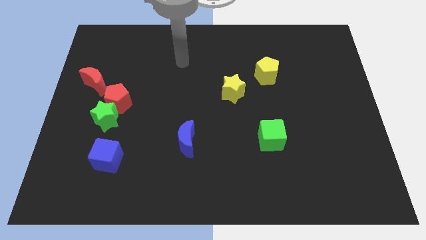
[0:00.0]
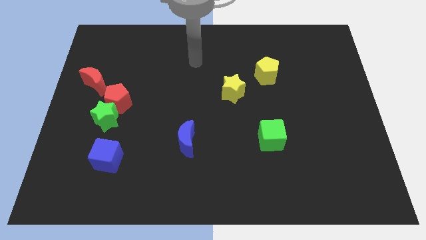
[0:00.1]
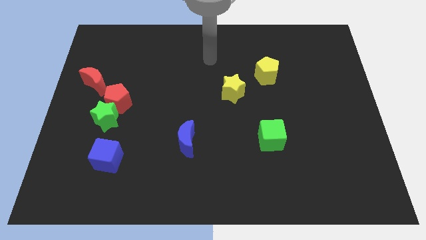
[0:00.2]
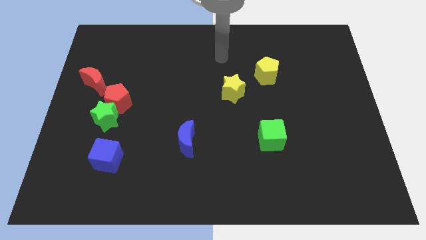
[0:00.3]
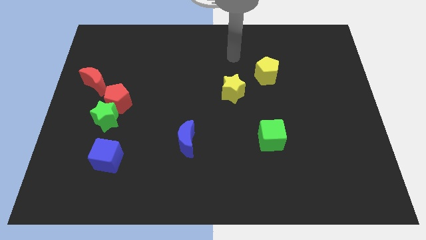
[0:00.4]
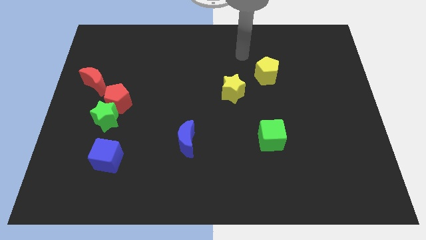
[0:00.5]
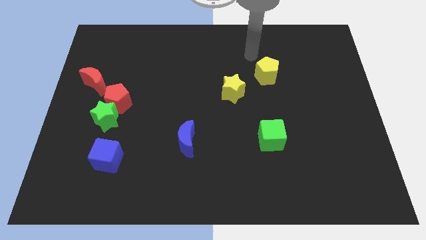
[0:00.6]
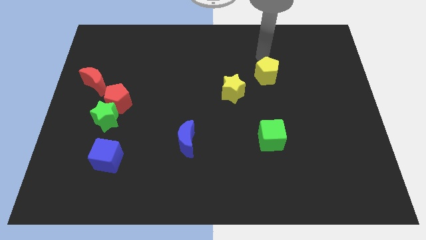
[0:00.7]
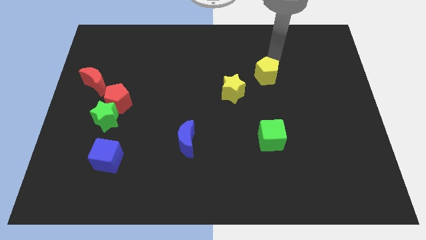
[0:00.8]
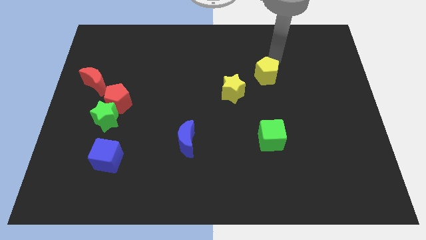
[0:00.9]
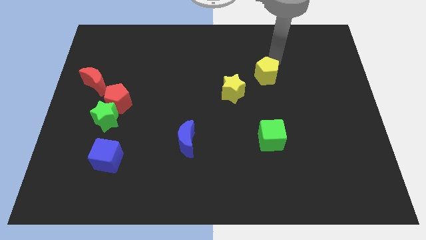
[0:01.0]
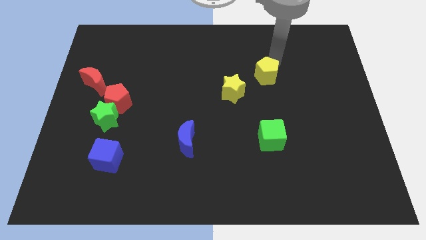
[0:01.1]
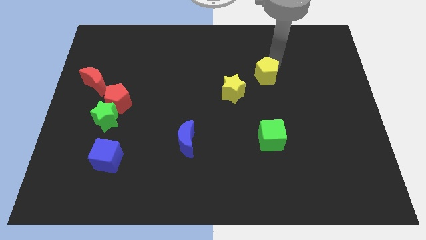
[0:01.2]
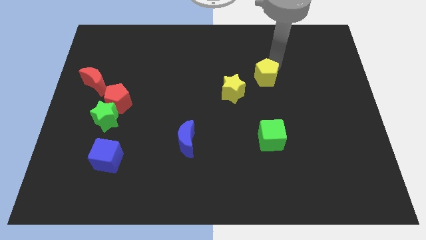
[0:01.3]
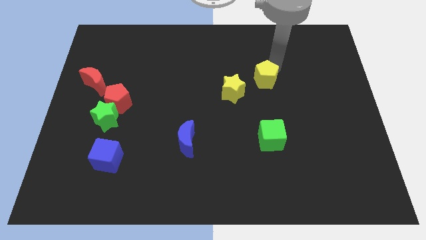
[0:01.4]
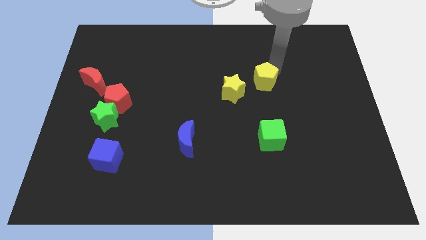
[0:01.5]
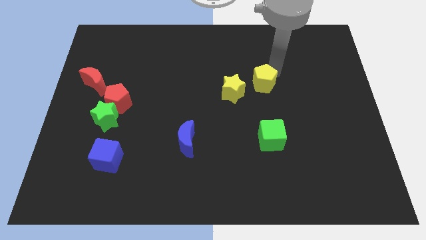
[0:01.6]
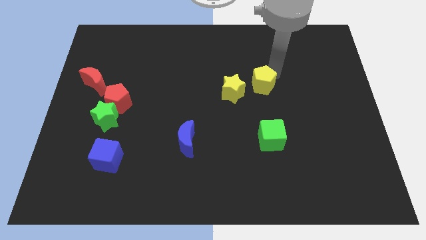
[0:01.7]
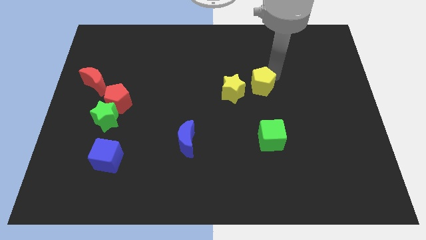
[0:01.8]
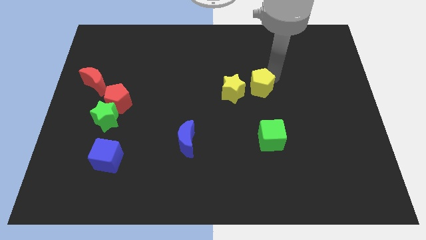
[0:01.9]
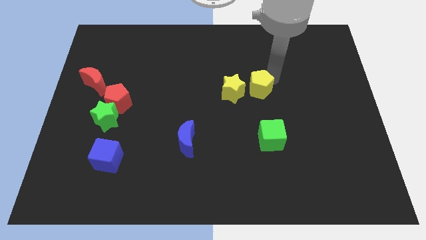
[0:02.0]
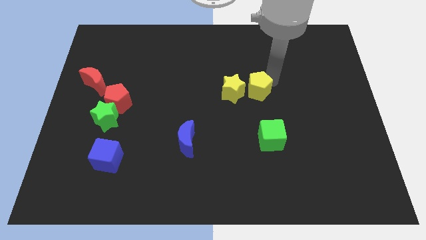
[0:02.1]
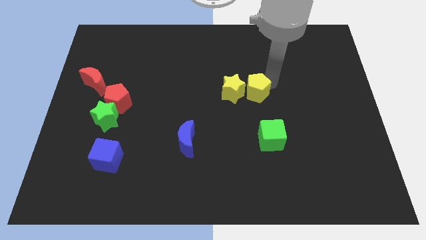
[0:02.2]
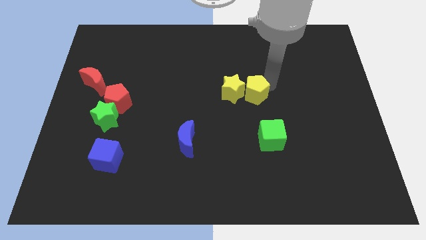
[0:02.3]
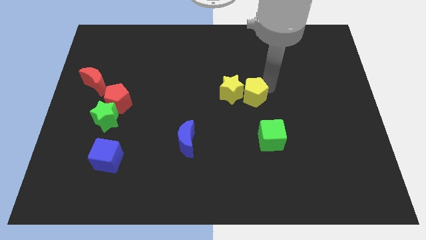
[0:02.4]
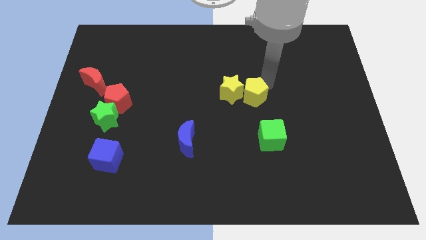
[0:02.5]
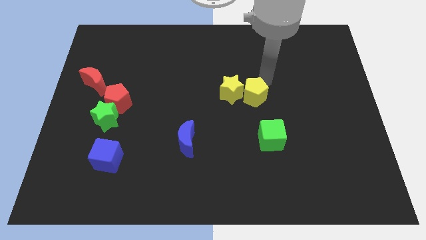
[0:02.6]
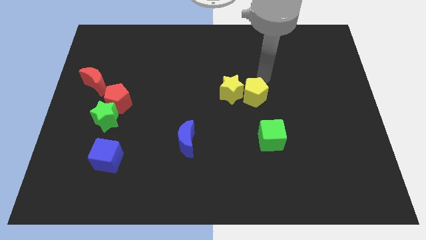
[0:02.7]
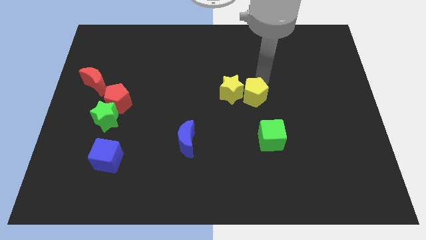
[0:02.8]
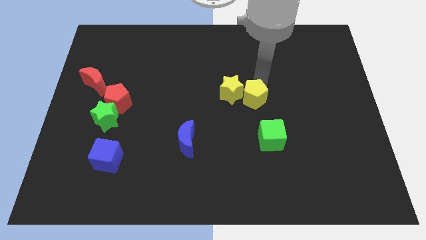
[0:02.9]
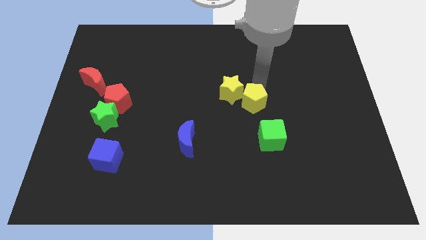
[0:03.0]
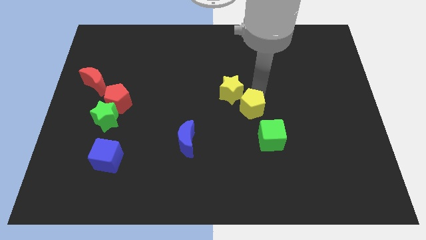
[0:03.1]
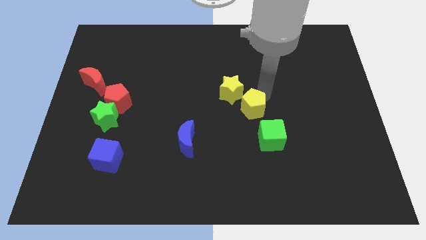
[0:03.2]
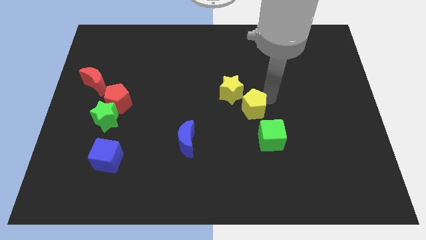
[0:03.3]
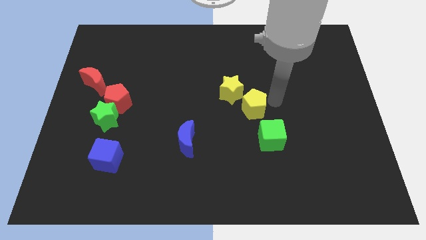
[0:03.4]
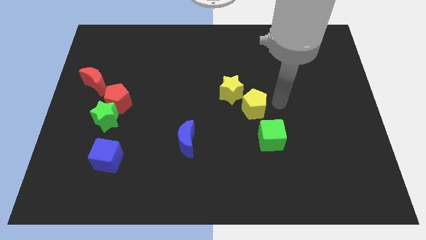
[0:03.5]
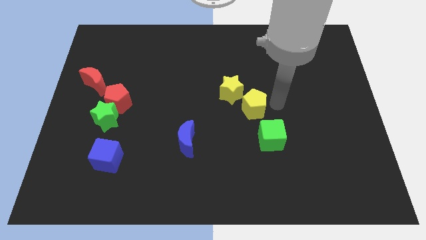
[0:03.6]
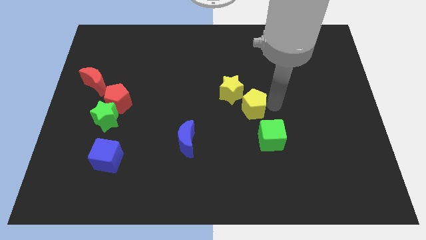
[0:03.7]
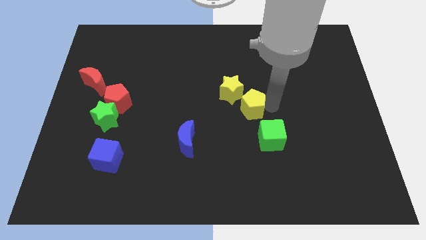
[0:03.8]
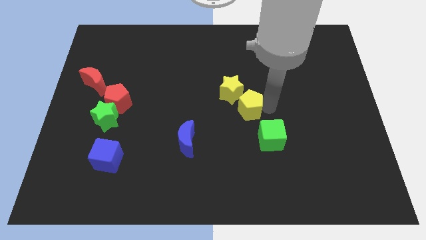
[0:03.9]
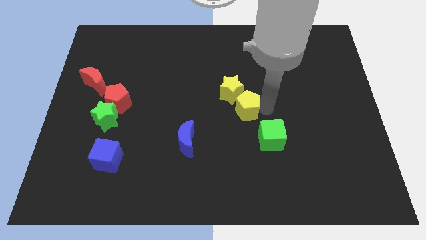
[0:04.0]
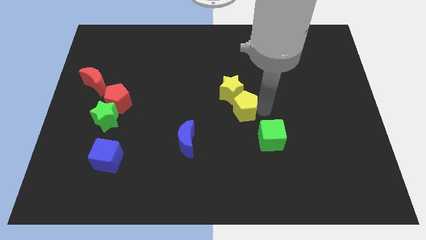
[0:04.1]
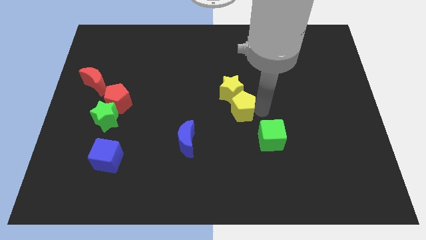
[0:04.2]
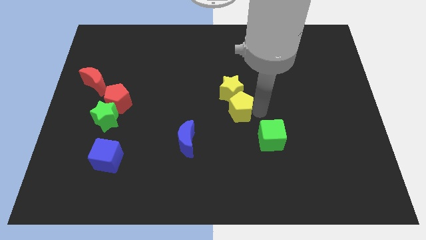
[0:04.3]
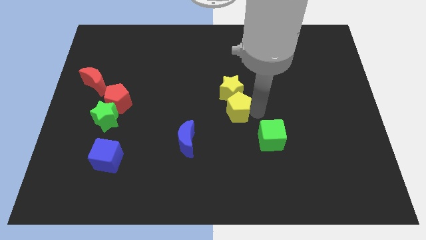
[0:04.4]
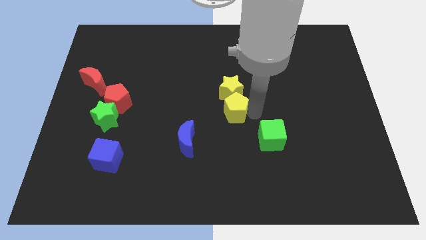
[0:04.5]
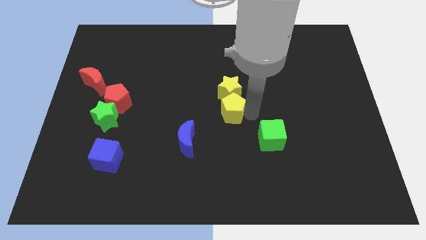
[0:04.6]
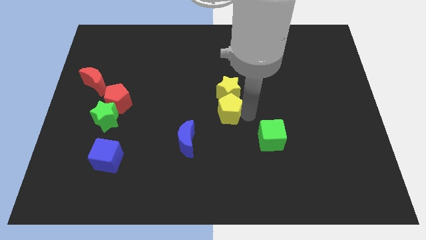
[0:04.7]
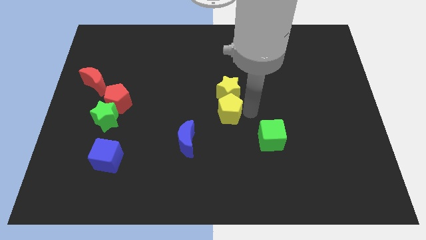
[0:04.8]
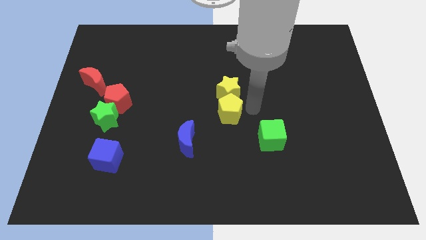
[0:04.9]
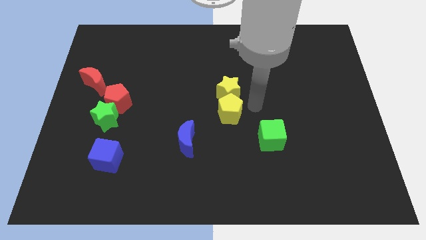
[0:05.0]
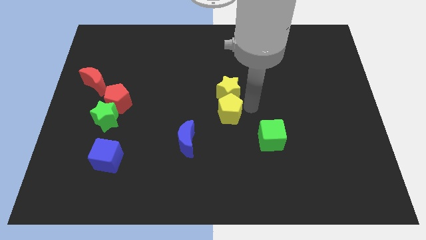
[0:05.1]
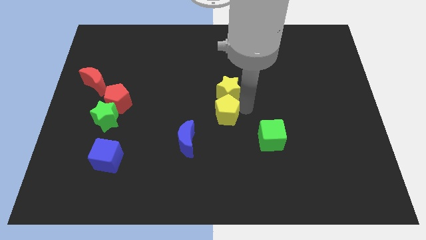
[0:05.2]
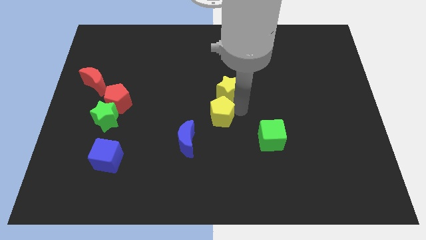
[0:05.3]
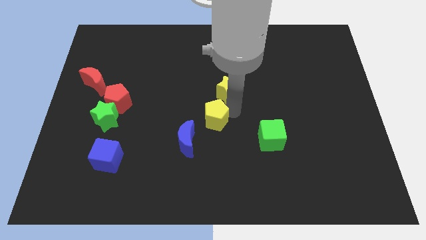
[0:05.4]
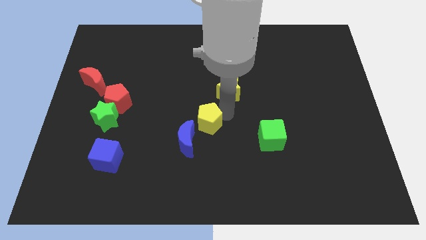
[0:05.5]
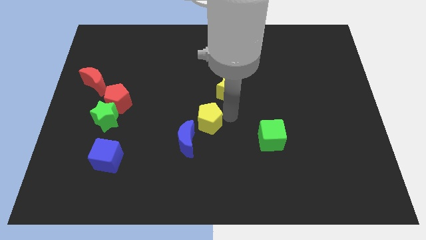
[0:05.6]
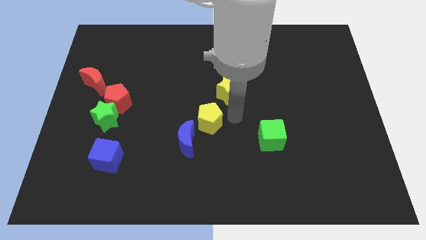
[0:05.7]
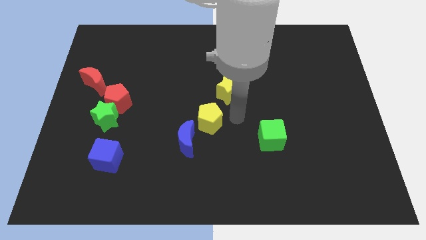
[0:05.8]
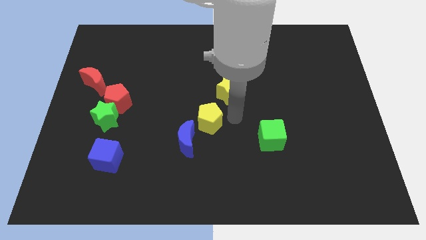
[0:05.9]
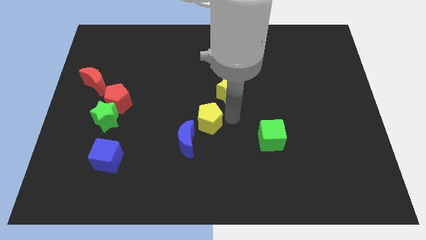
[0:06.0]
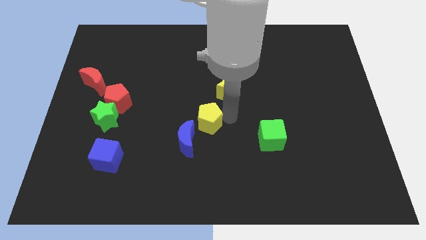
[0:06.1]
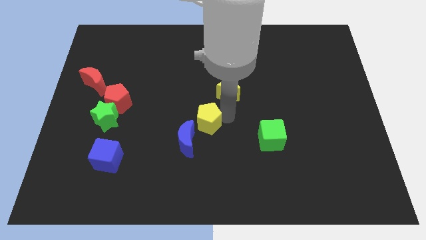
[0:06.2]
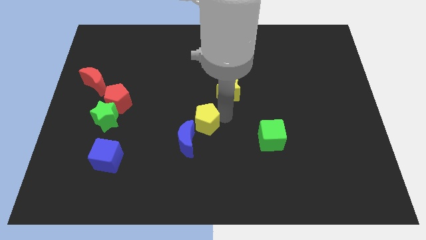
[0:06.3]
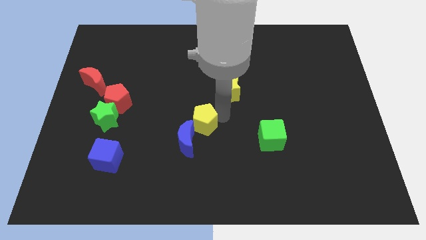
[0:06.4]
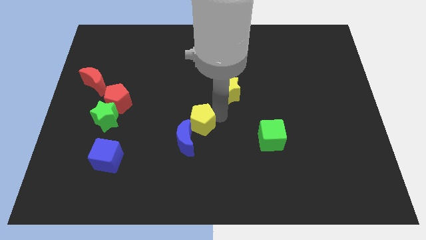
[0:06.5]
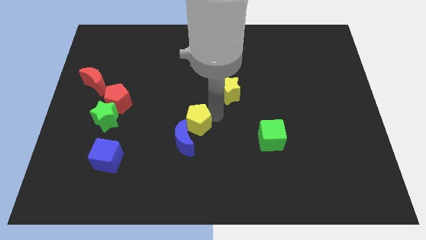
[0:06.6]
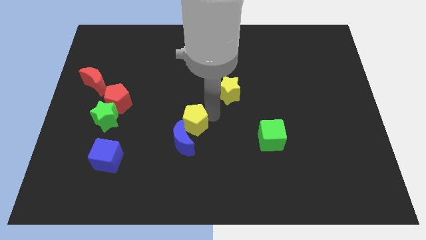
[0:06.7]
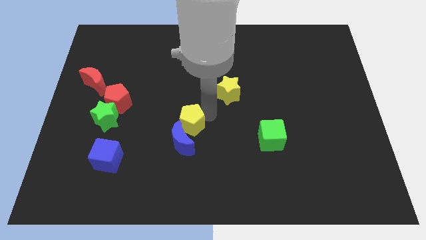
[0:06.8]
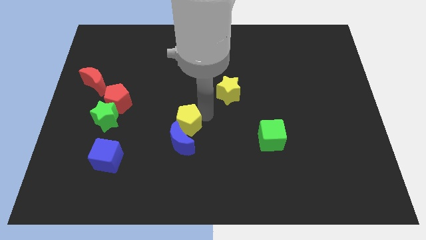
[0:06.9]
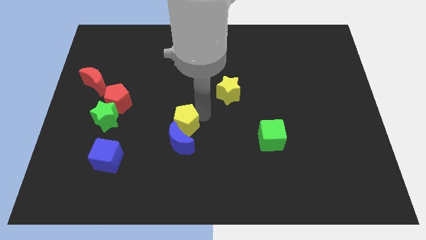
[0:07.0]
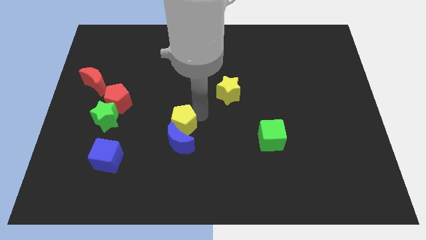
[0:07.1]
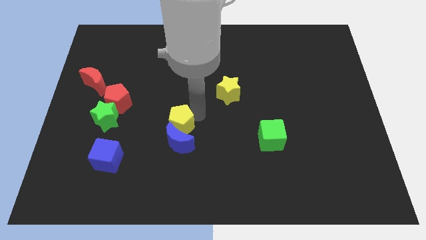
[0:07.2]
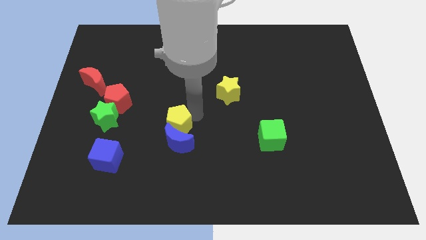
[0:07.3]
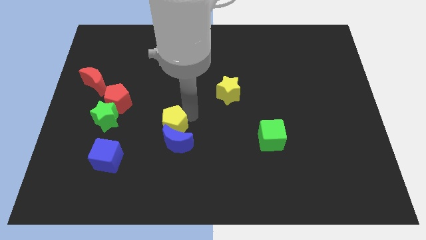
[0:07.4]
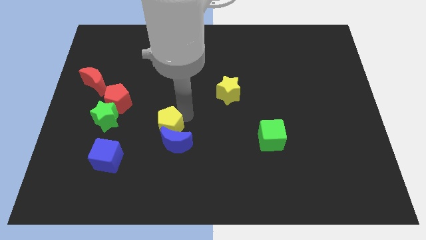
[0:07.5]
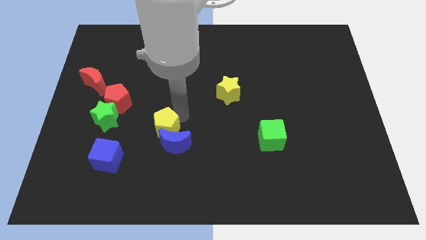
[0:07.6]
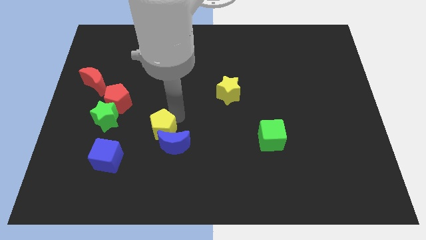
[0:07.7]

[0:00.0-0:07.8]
put the yellow pentagon to the left of the blue moon
